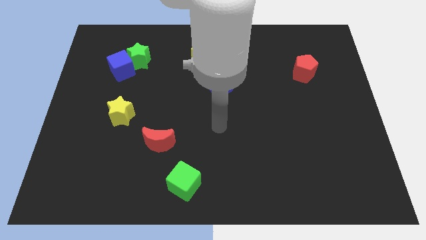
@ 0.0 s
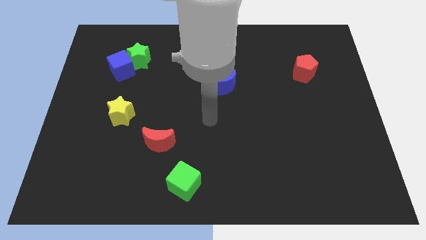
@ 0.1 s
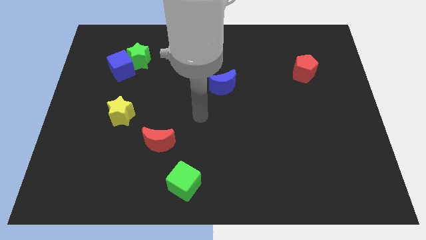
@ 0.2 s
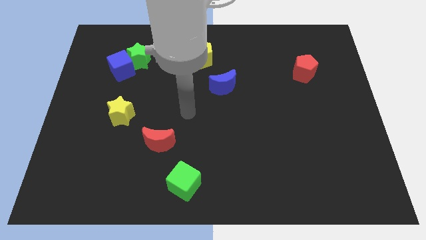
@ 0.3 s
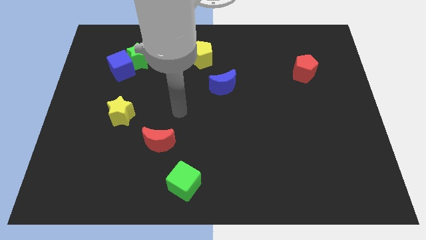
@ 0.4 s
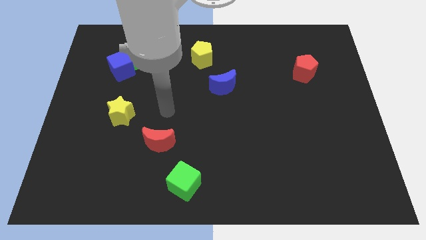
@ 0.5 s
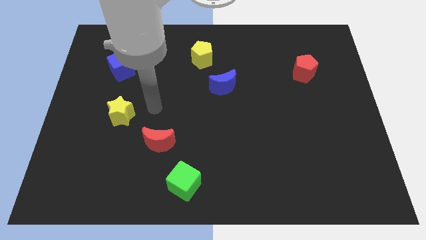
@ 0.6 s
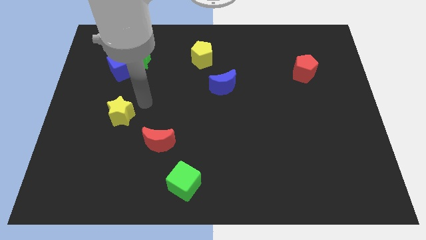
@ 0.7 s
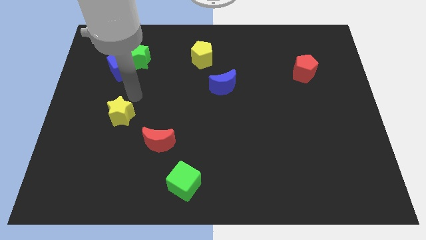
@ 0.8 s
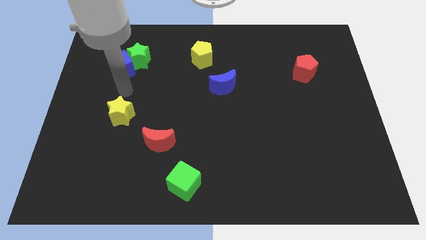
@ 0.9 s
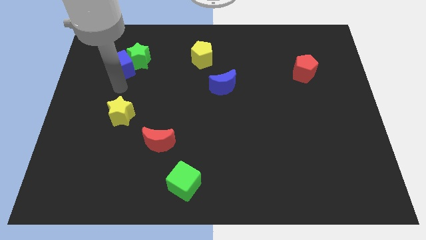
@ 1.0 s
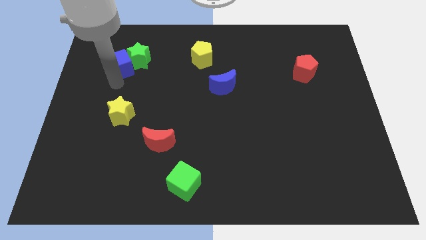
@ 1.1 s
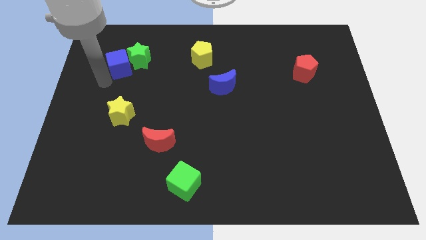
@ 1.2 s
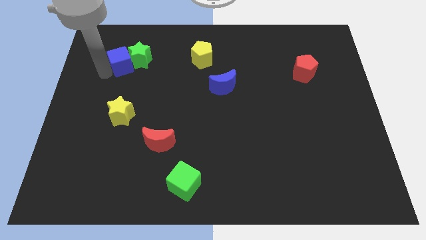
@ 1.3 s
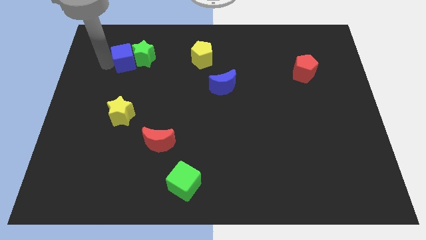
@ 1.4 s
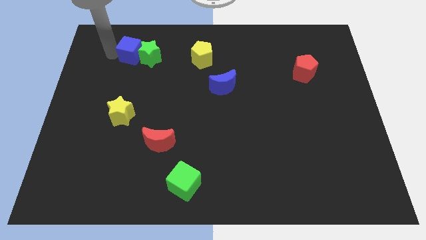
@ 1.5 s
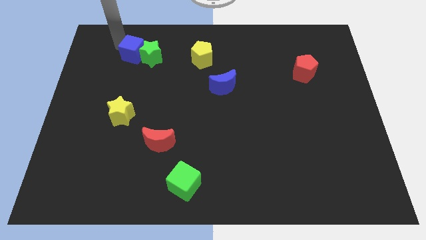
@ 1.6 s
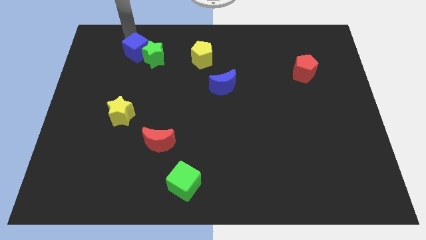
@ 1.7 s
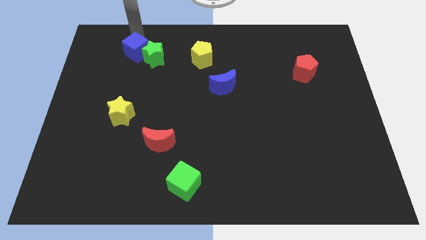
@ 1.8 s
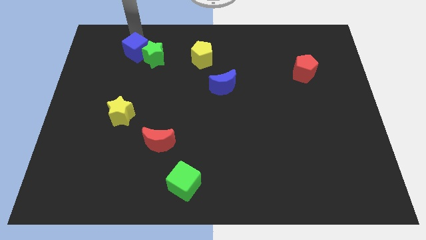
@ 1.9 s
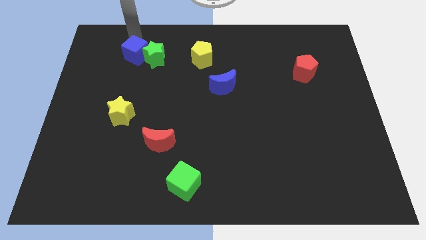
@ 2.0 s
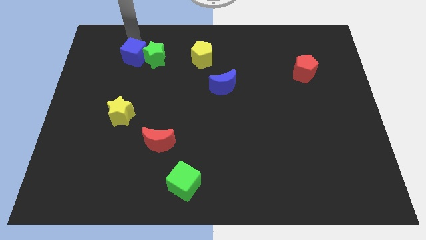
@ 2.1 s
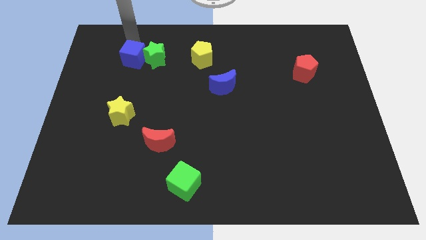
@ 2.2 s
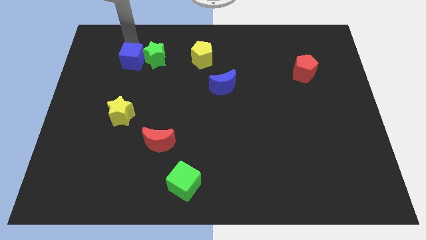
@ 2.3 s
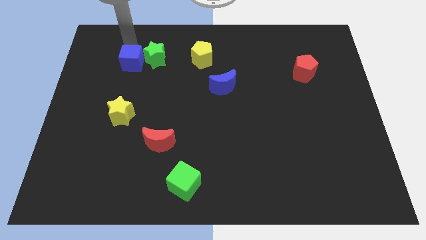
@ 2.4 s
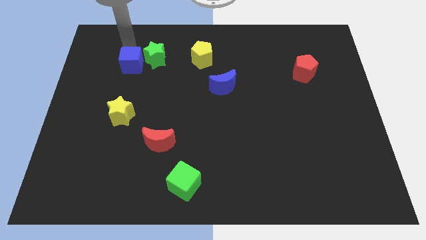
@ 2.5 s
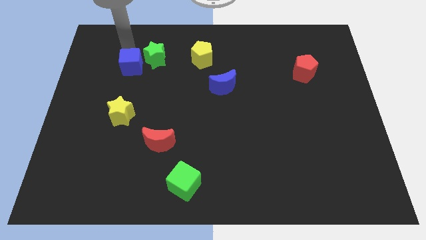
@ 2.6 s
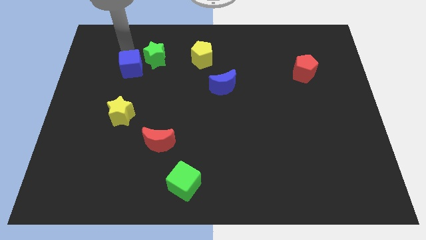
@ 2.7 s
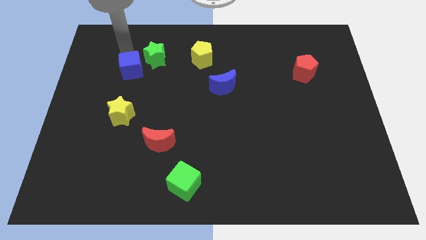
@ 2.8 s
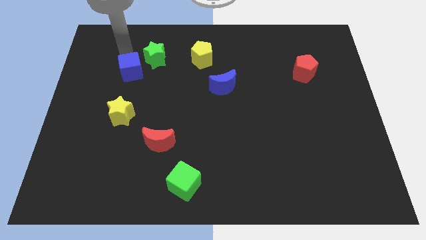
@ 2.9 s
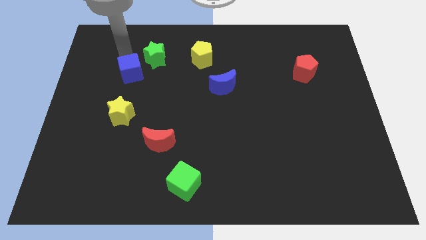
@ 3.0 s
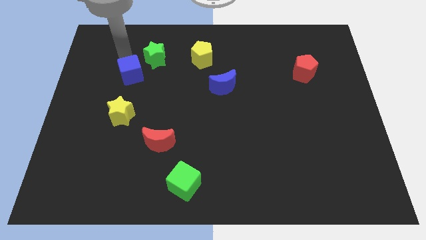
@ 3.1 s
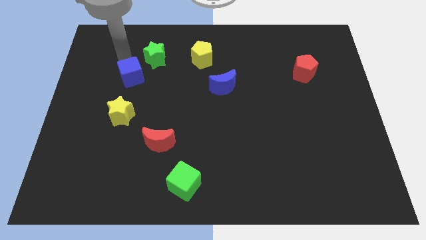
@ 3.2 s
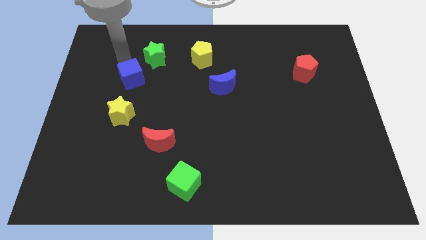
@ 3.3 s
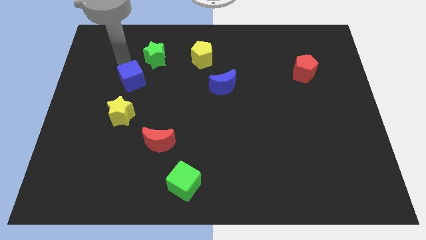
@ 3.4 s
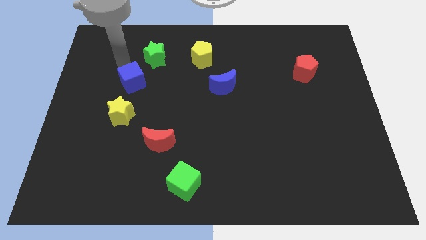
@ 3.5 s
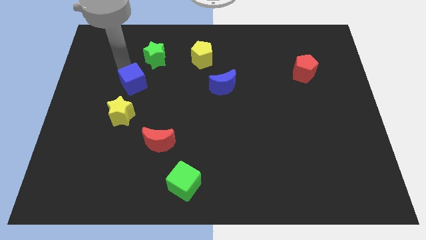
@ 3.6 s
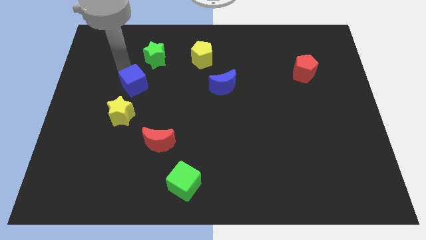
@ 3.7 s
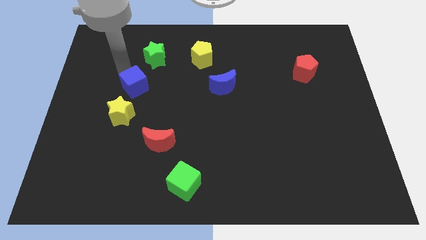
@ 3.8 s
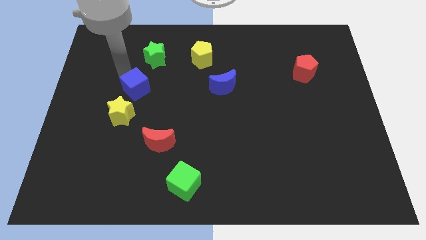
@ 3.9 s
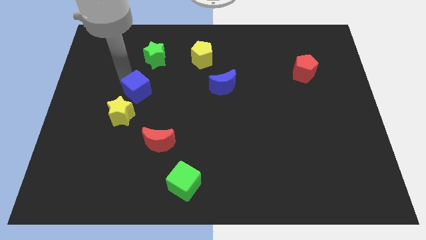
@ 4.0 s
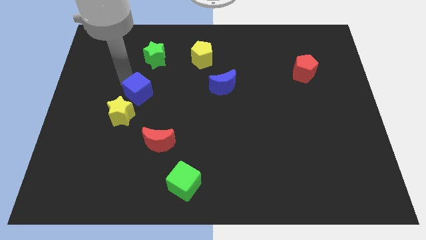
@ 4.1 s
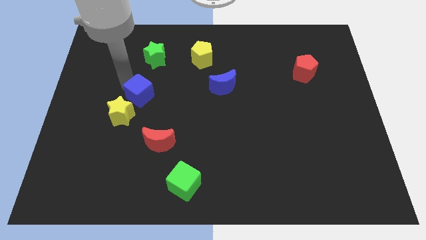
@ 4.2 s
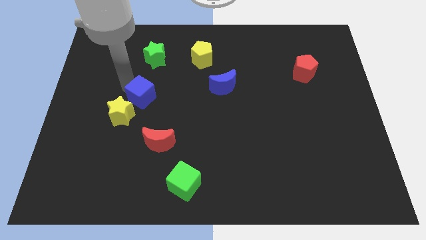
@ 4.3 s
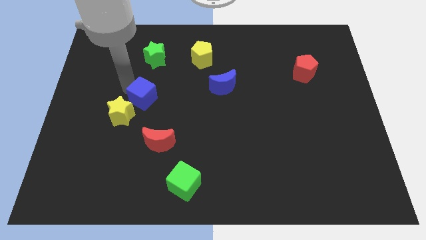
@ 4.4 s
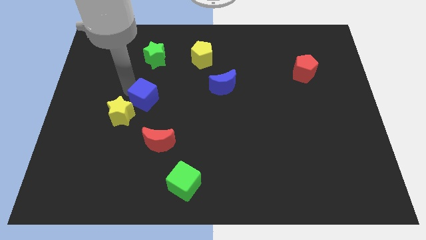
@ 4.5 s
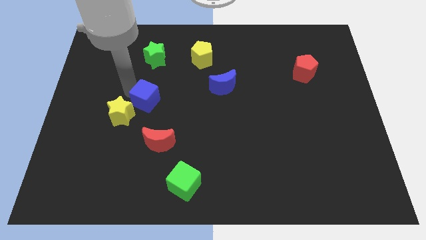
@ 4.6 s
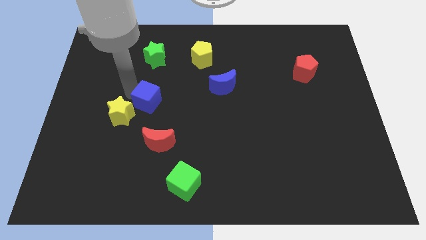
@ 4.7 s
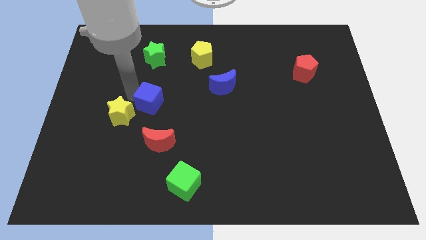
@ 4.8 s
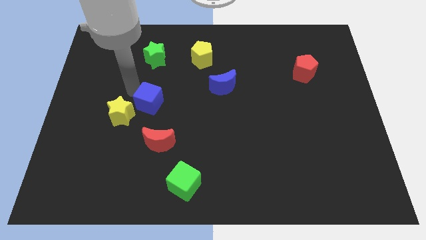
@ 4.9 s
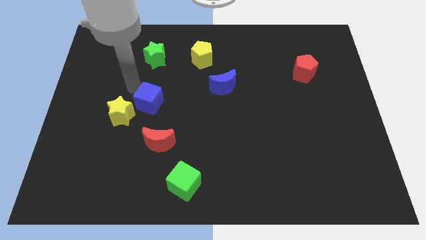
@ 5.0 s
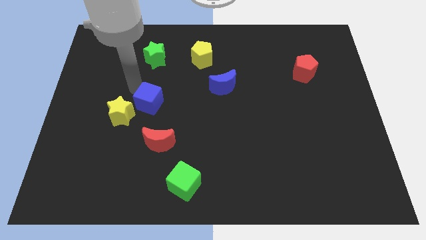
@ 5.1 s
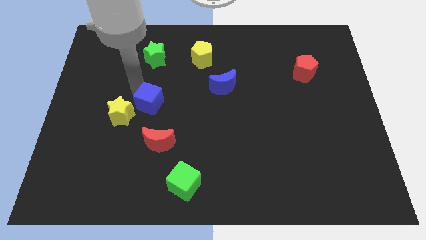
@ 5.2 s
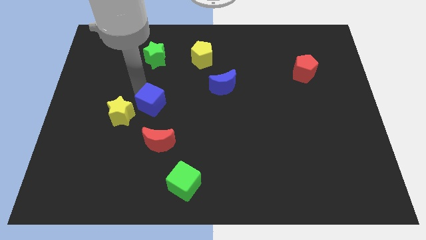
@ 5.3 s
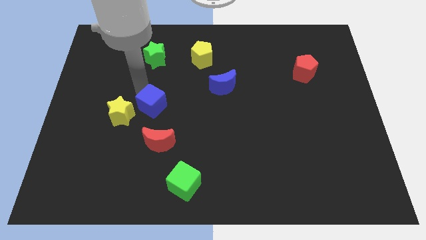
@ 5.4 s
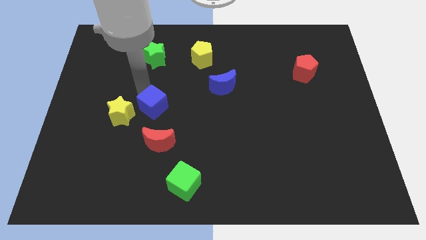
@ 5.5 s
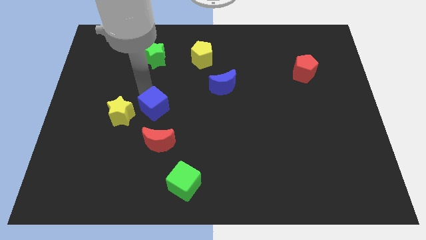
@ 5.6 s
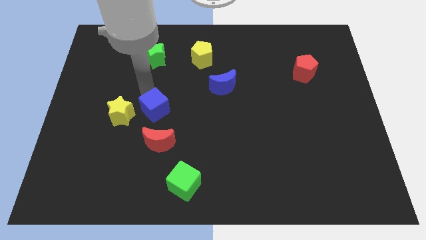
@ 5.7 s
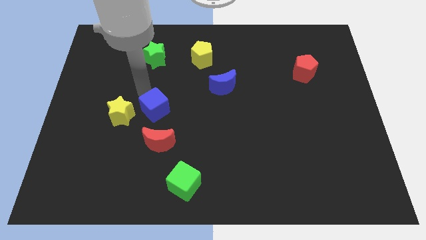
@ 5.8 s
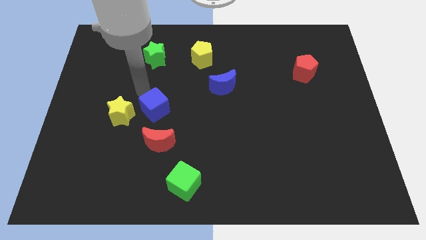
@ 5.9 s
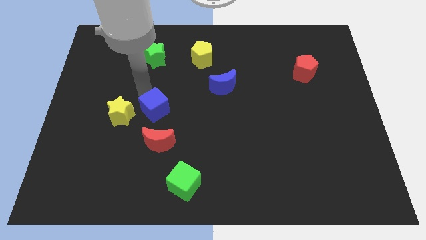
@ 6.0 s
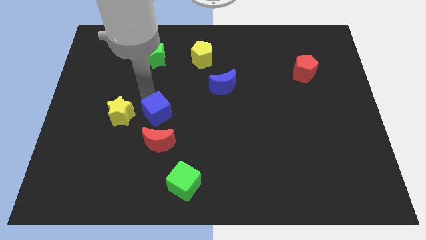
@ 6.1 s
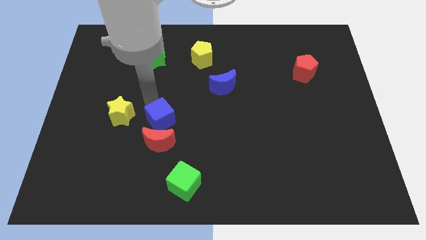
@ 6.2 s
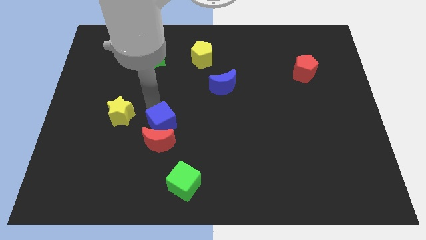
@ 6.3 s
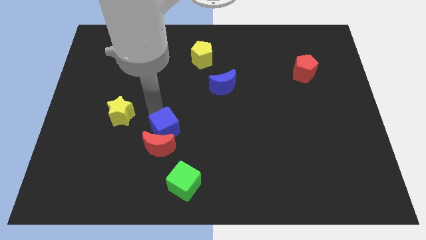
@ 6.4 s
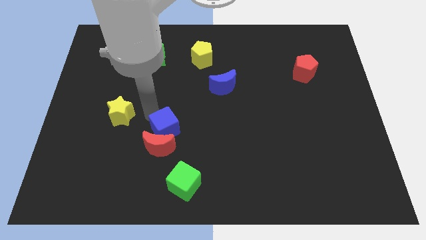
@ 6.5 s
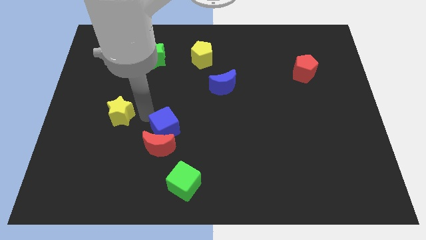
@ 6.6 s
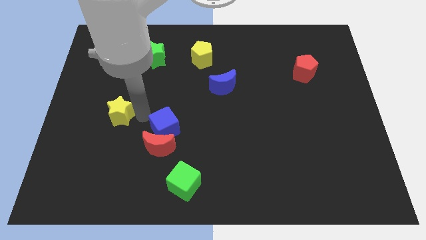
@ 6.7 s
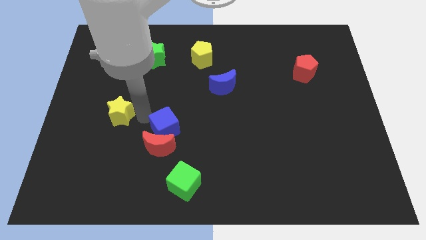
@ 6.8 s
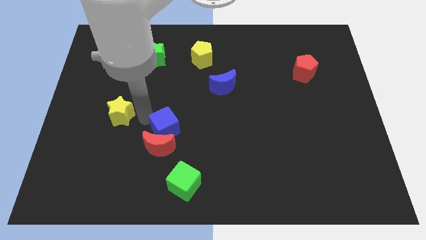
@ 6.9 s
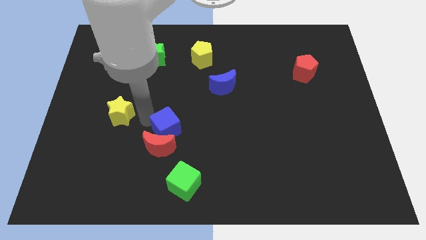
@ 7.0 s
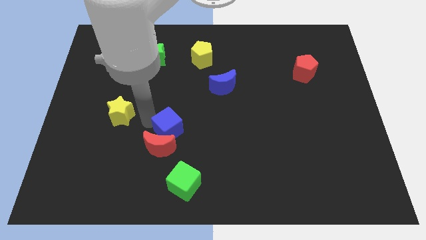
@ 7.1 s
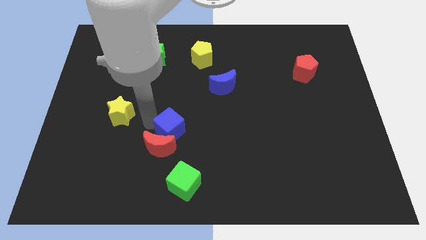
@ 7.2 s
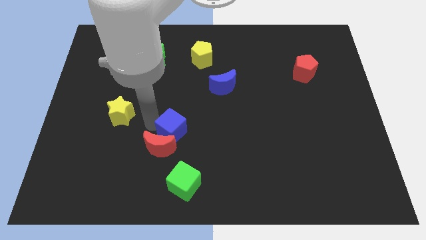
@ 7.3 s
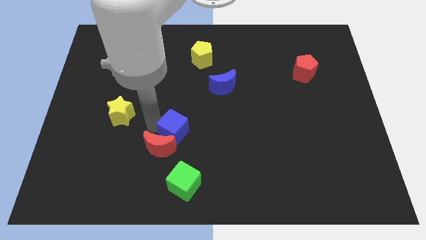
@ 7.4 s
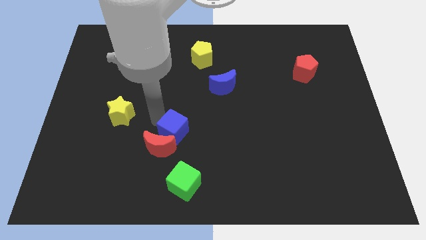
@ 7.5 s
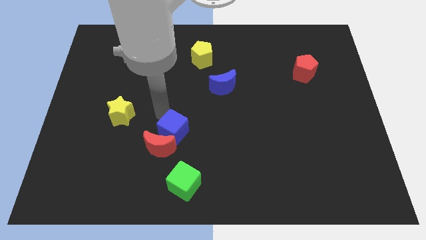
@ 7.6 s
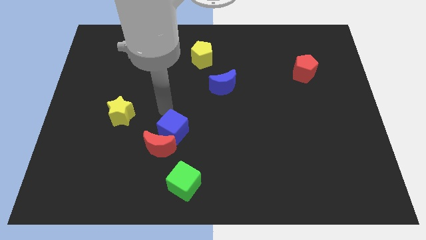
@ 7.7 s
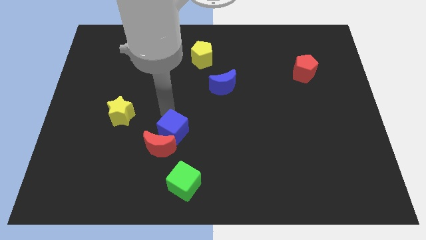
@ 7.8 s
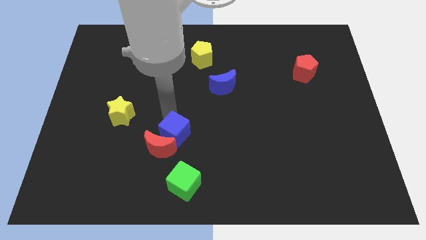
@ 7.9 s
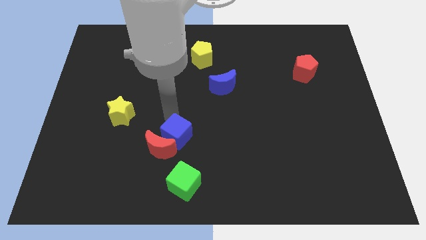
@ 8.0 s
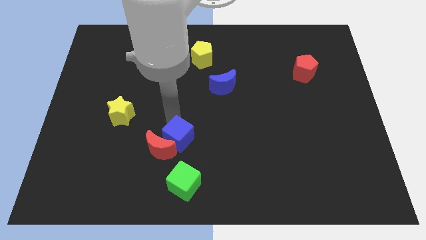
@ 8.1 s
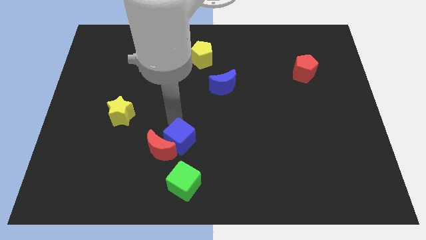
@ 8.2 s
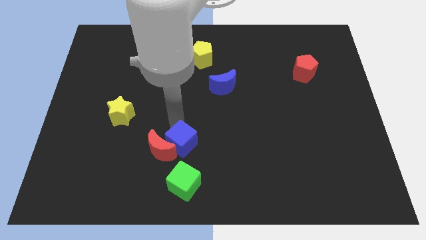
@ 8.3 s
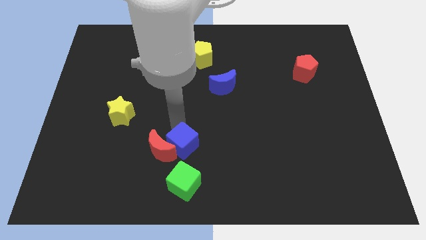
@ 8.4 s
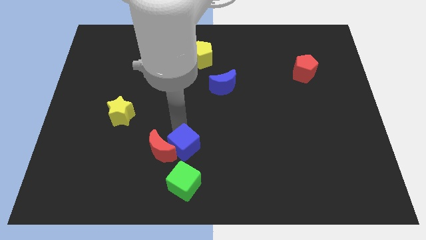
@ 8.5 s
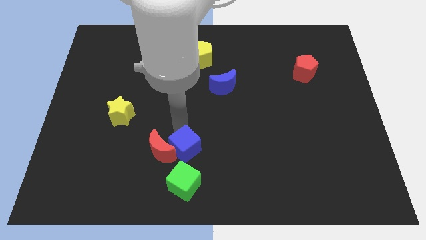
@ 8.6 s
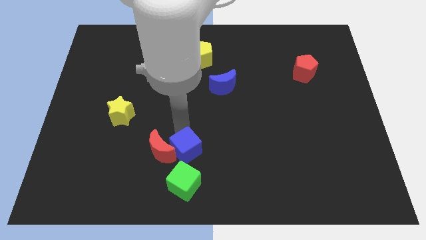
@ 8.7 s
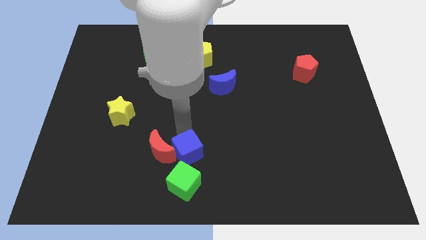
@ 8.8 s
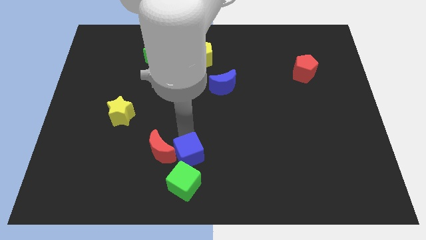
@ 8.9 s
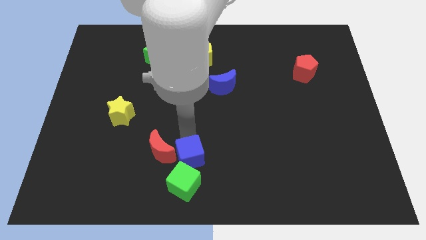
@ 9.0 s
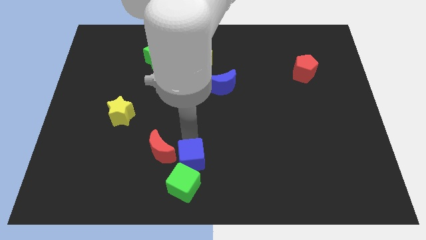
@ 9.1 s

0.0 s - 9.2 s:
put the blue cube next to the green cube
